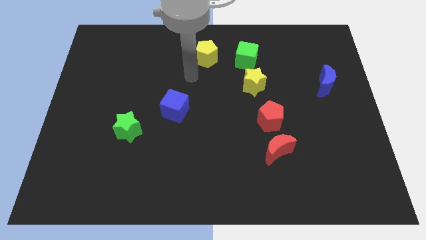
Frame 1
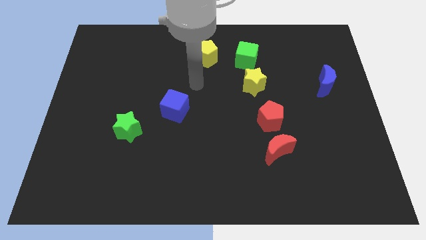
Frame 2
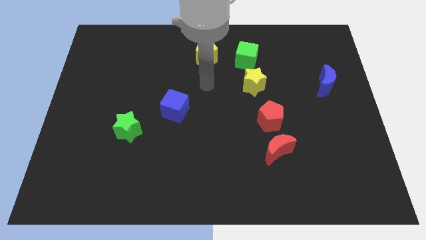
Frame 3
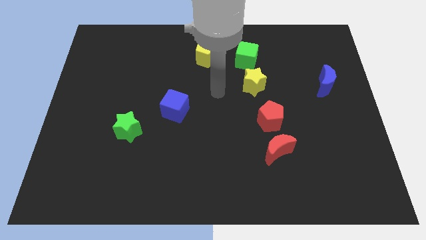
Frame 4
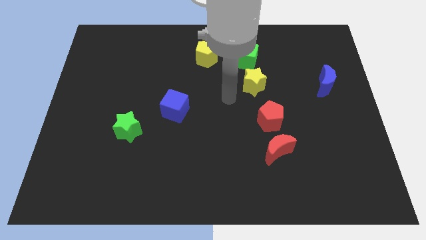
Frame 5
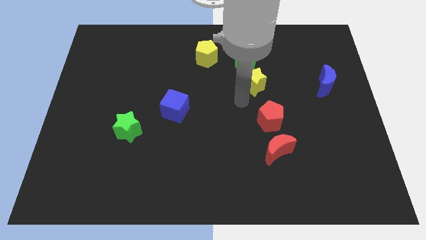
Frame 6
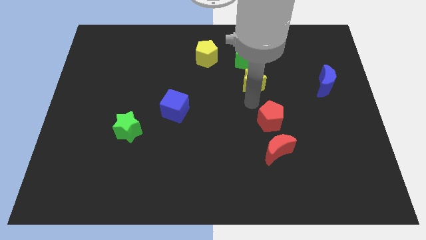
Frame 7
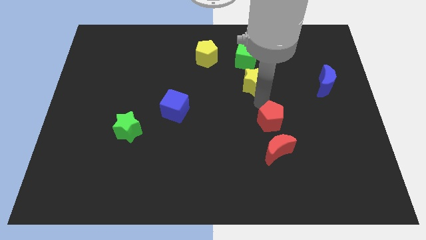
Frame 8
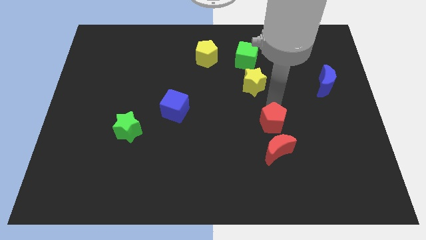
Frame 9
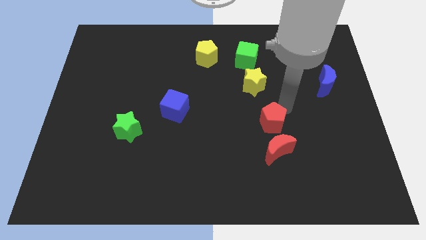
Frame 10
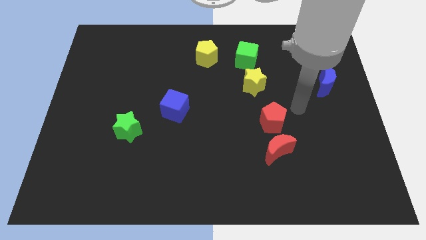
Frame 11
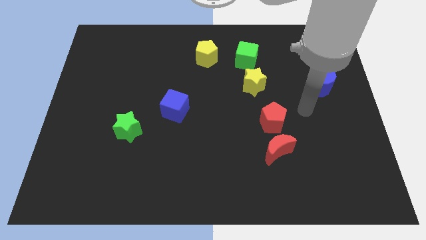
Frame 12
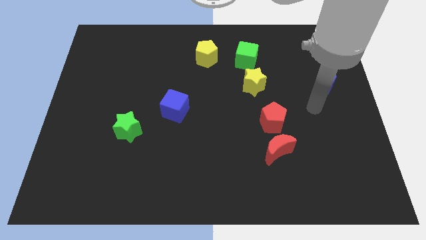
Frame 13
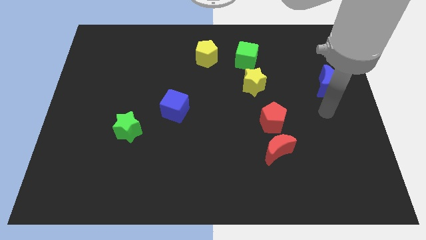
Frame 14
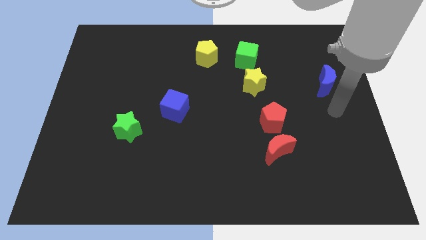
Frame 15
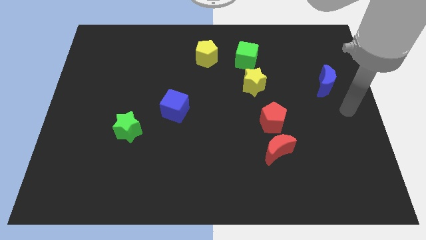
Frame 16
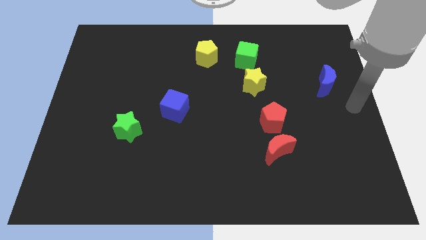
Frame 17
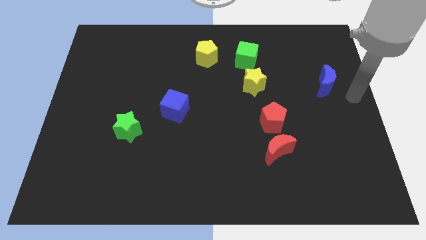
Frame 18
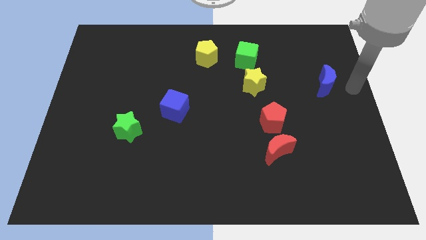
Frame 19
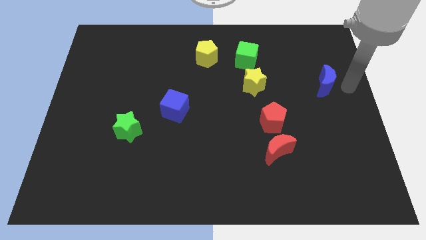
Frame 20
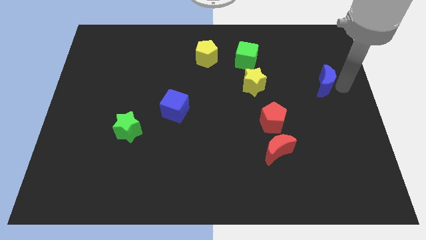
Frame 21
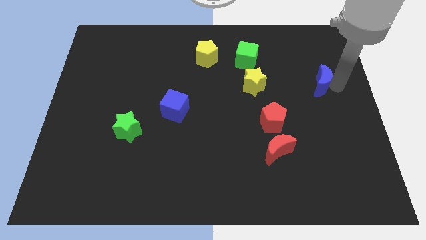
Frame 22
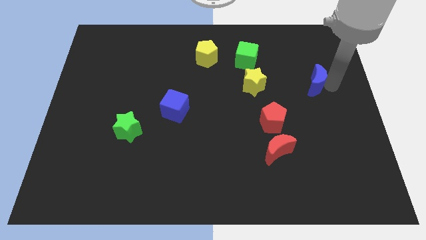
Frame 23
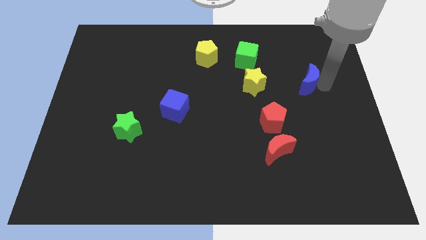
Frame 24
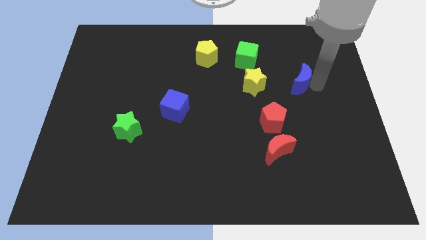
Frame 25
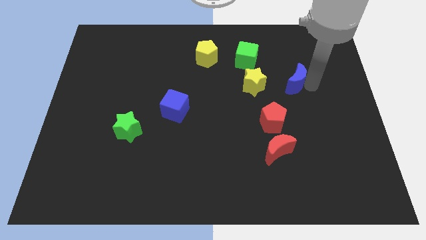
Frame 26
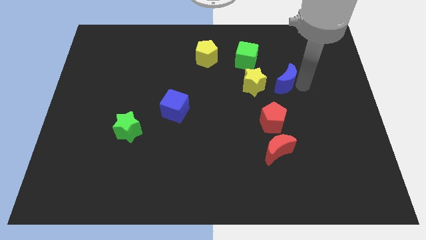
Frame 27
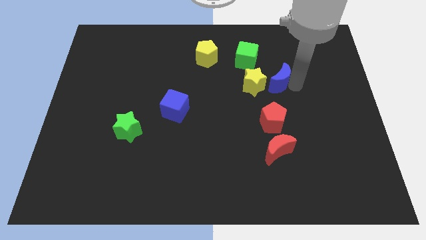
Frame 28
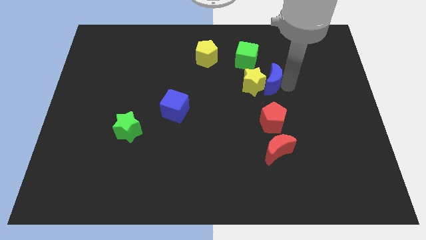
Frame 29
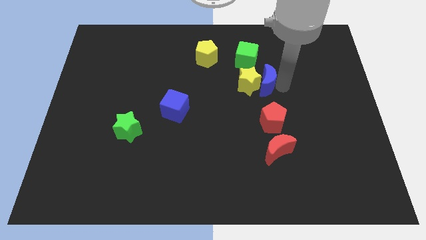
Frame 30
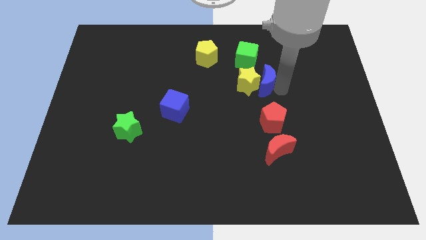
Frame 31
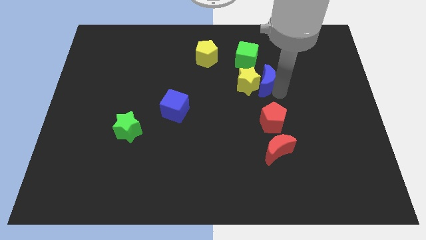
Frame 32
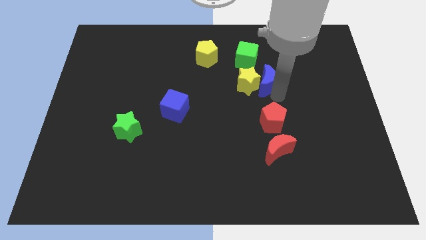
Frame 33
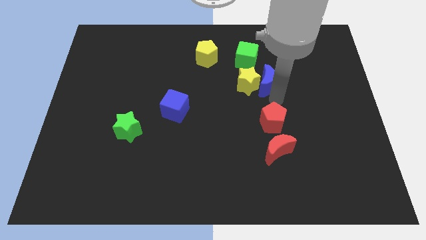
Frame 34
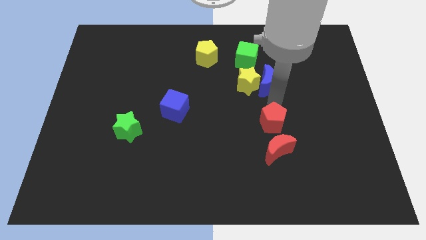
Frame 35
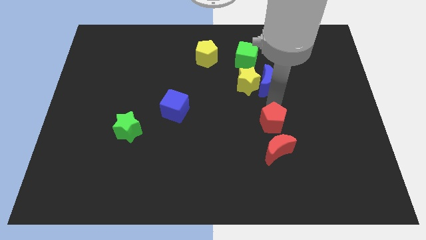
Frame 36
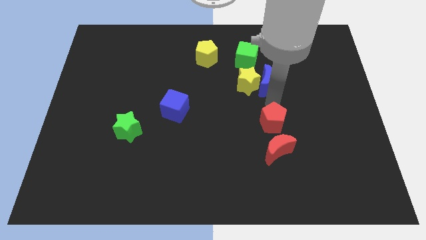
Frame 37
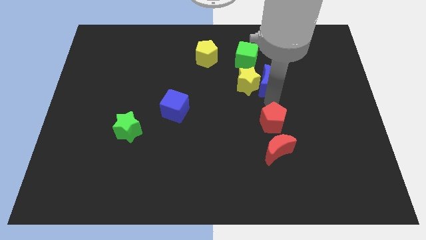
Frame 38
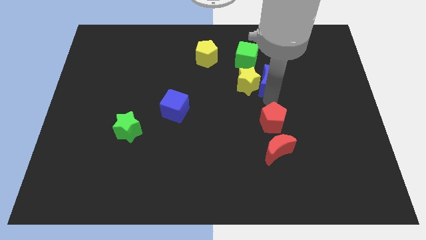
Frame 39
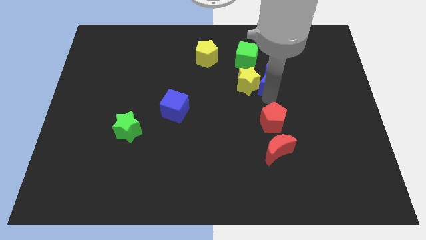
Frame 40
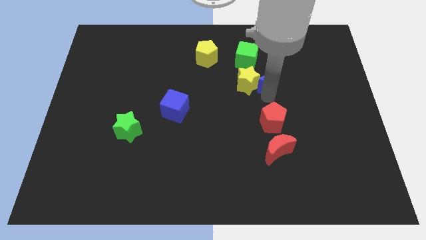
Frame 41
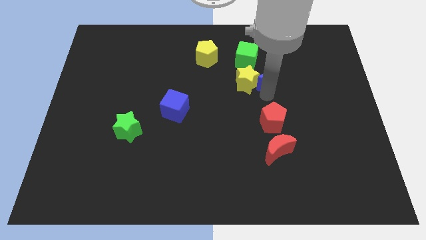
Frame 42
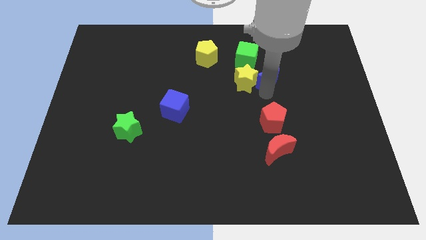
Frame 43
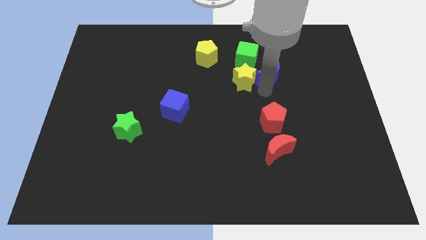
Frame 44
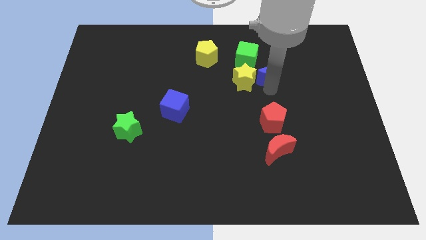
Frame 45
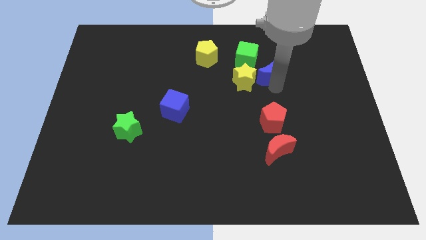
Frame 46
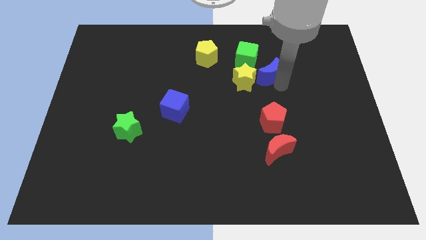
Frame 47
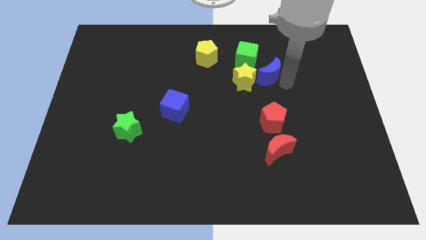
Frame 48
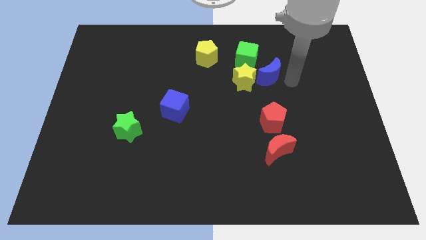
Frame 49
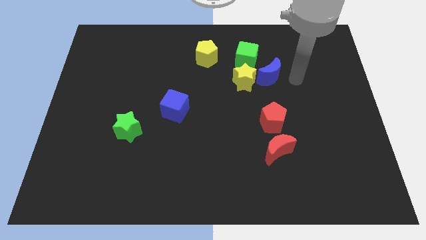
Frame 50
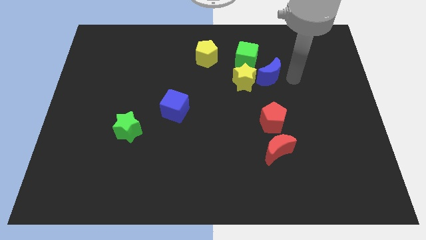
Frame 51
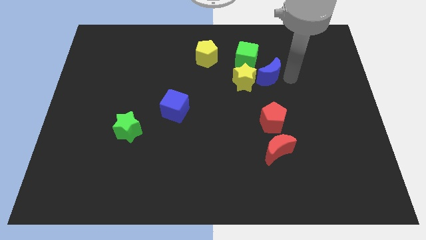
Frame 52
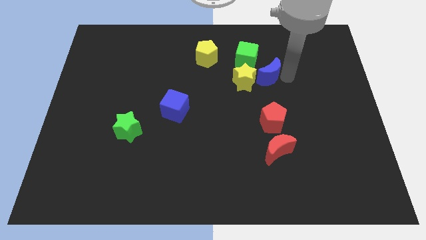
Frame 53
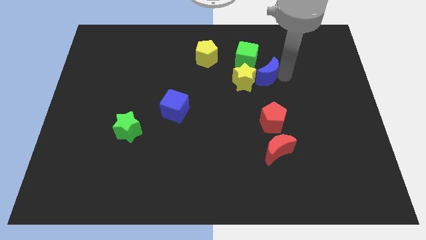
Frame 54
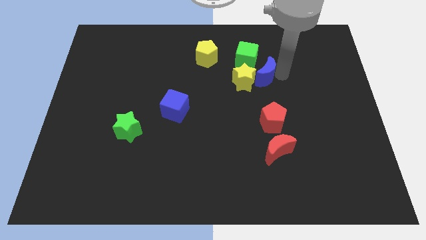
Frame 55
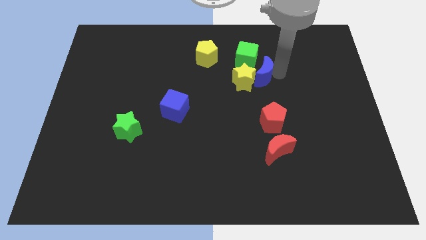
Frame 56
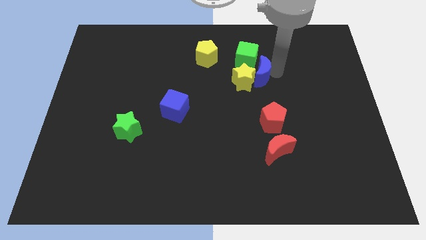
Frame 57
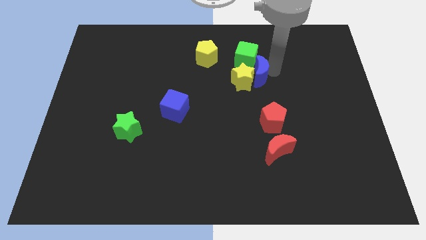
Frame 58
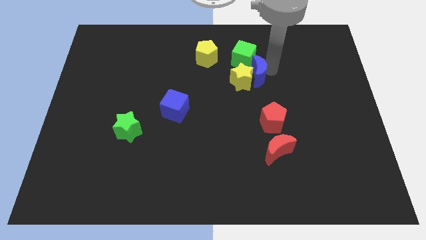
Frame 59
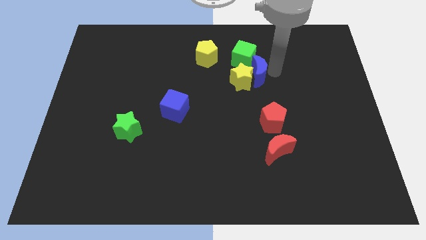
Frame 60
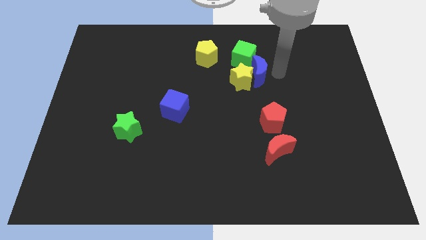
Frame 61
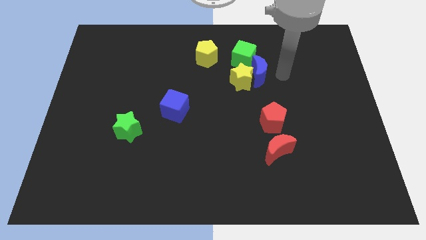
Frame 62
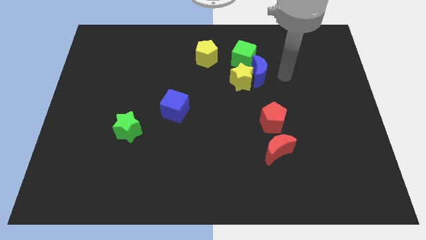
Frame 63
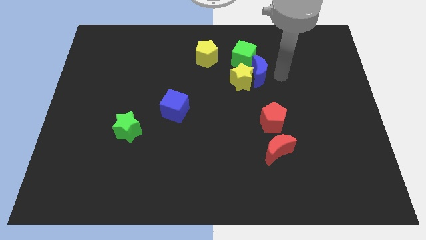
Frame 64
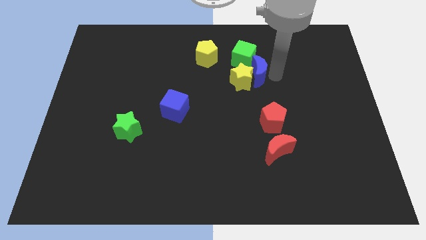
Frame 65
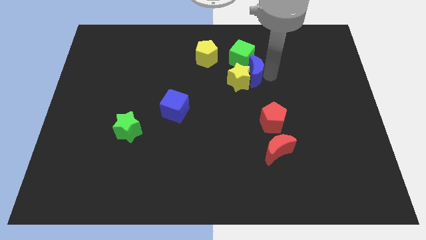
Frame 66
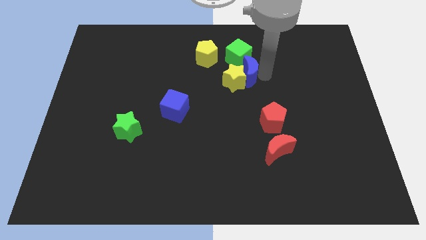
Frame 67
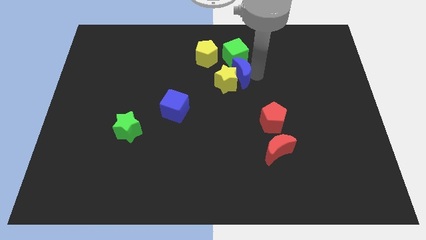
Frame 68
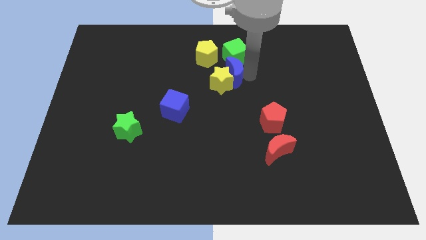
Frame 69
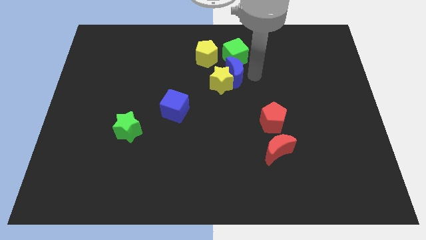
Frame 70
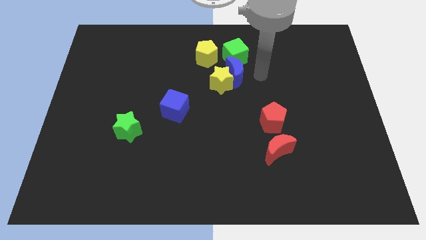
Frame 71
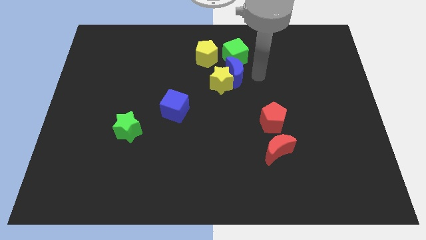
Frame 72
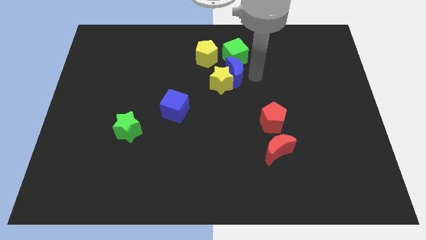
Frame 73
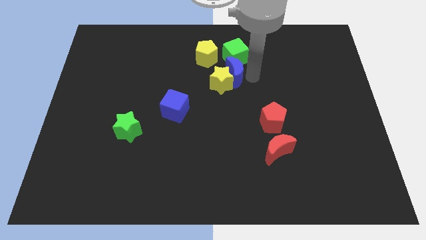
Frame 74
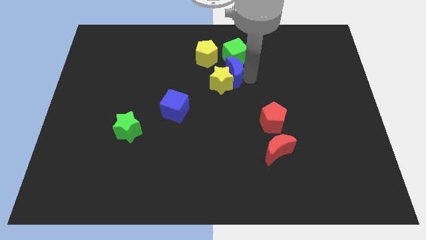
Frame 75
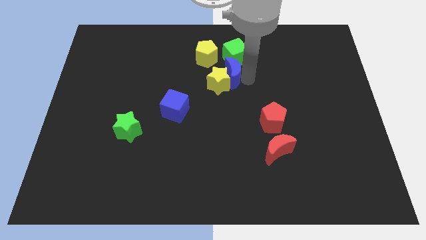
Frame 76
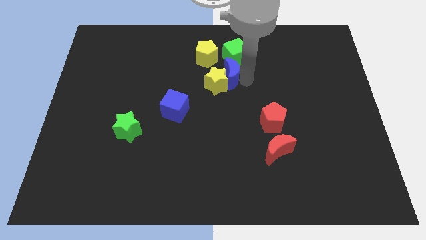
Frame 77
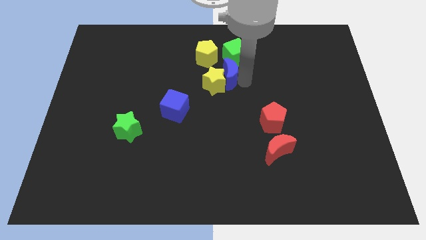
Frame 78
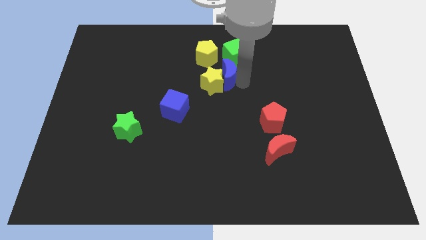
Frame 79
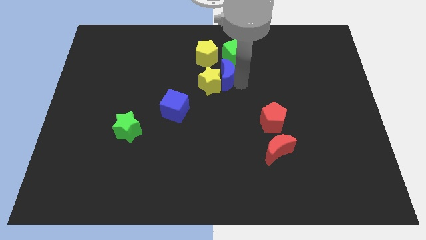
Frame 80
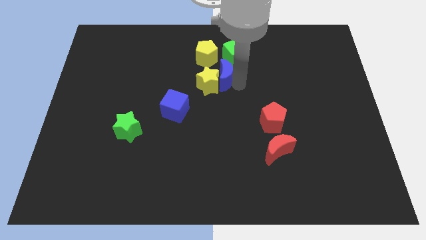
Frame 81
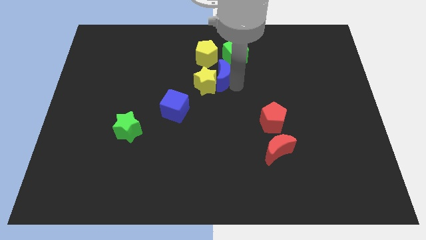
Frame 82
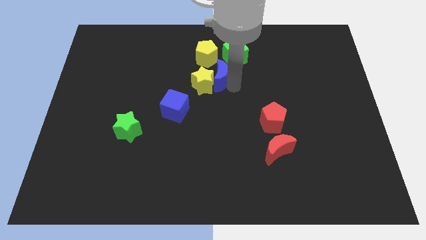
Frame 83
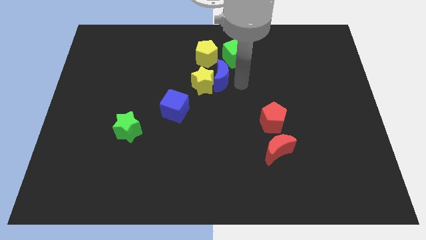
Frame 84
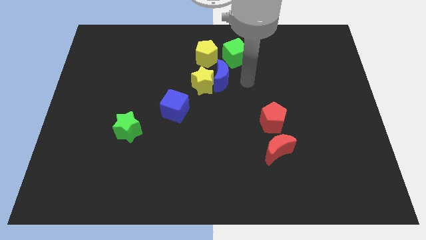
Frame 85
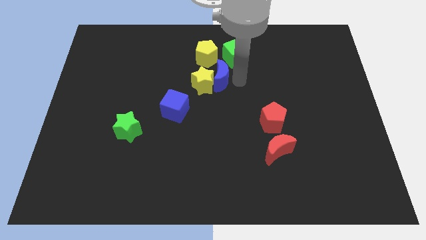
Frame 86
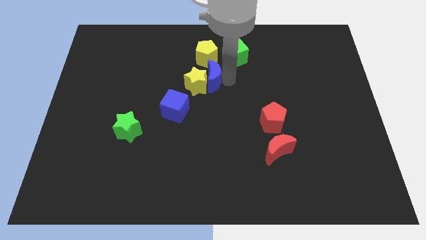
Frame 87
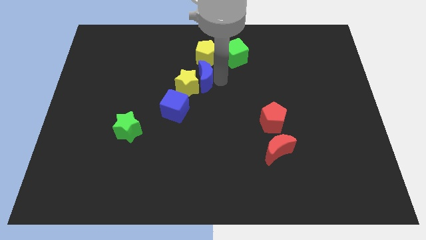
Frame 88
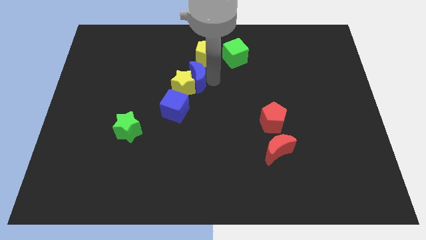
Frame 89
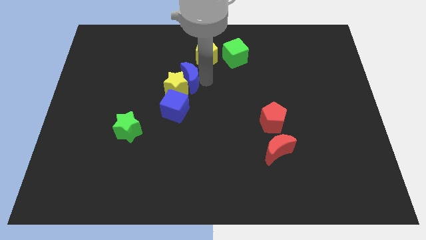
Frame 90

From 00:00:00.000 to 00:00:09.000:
slide the blue moon above the blue cube
